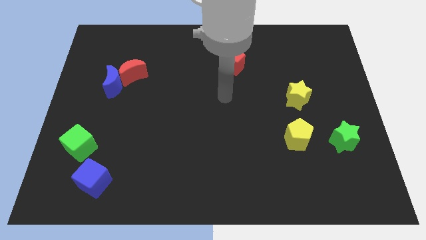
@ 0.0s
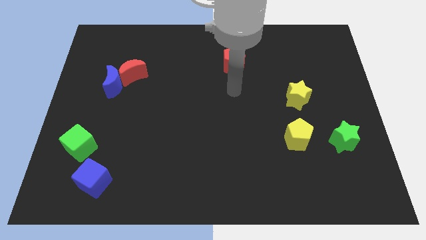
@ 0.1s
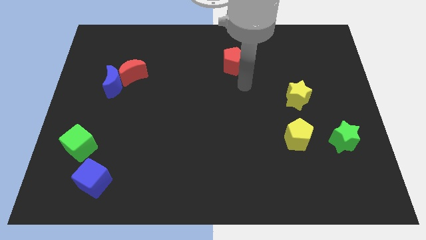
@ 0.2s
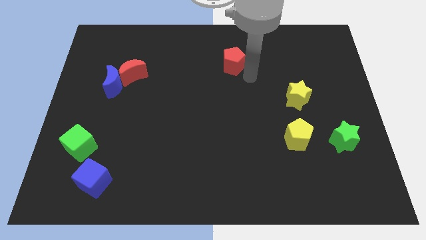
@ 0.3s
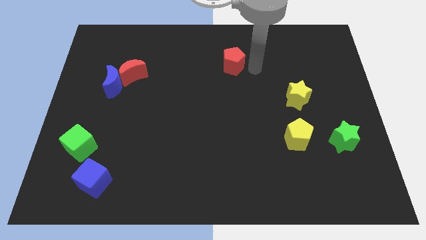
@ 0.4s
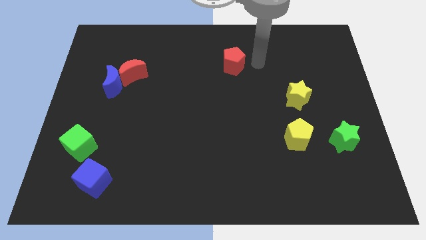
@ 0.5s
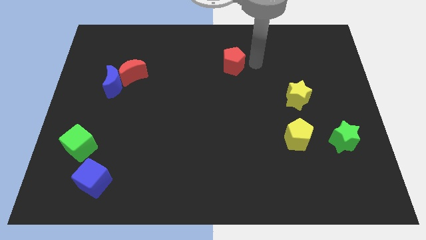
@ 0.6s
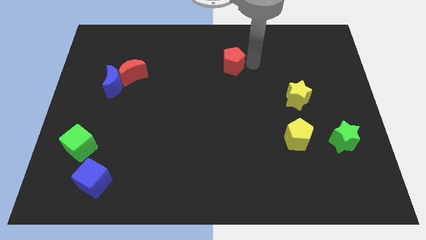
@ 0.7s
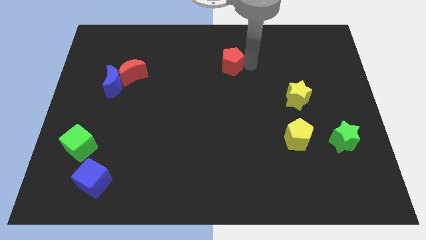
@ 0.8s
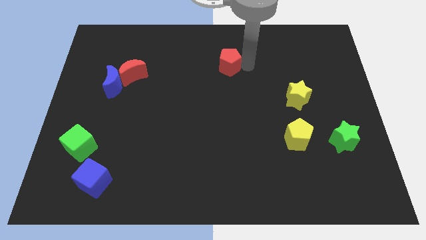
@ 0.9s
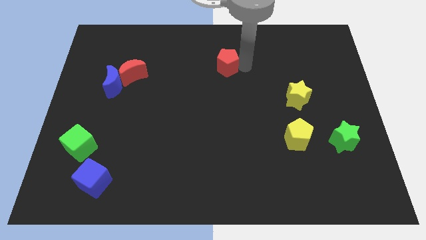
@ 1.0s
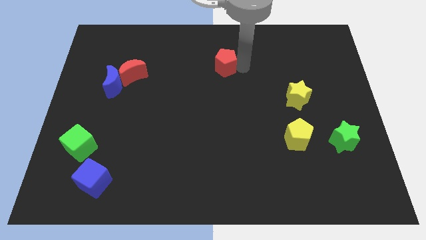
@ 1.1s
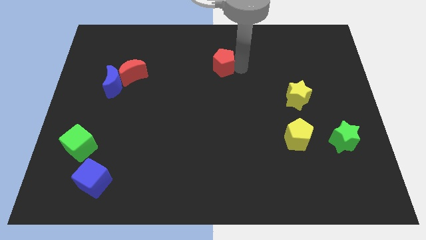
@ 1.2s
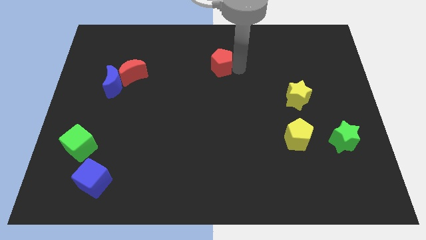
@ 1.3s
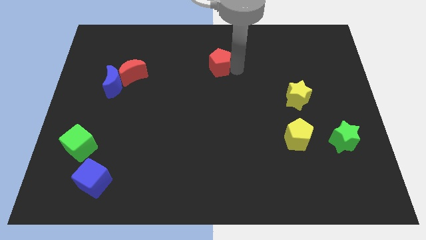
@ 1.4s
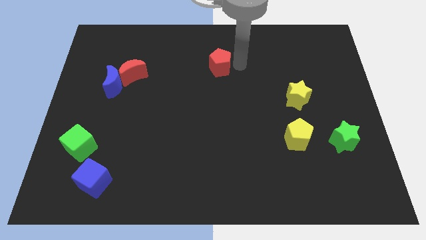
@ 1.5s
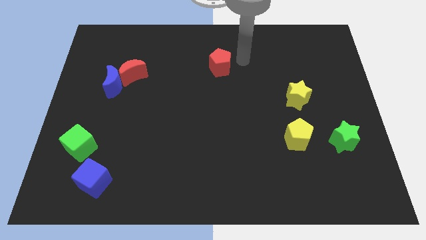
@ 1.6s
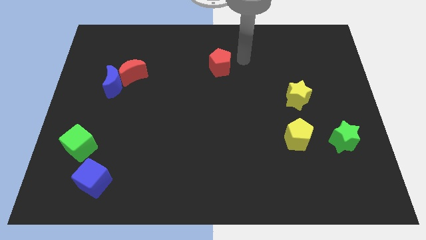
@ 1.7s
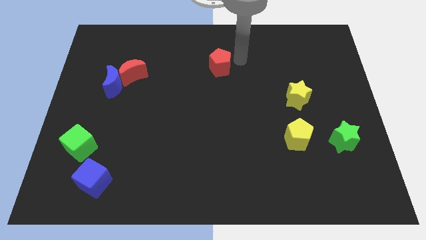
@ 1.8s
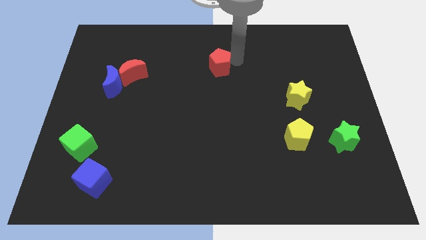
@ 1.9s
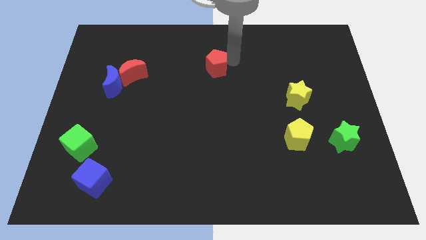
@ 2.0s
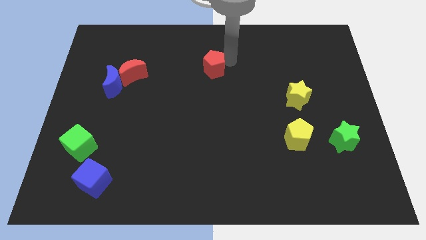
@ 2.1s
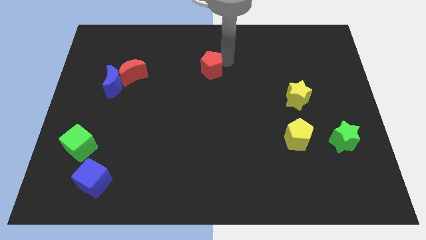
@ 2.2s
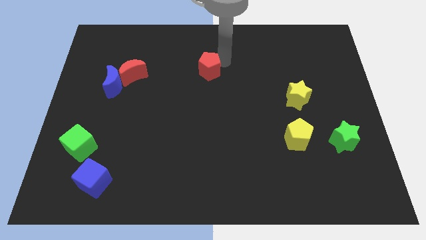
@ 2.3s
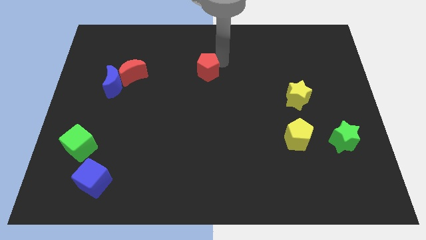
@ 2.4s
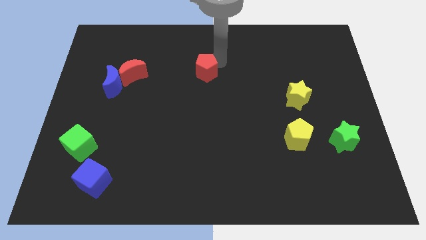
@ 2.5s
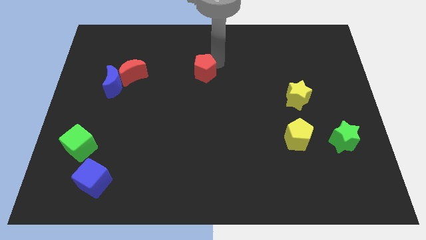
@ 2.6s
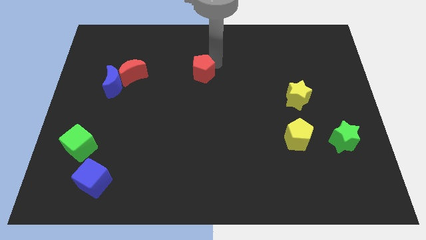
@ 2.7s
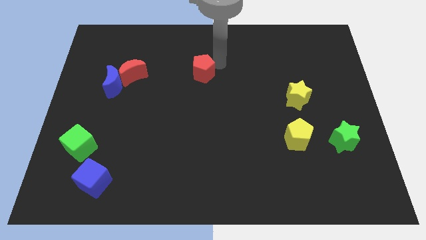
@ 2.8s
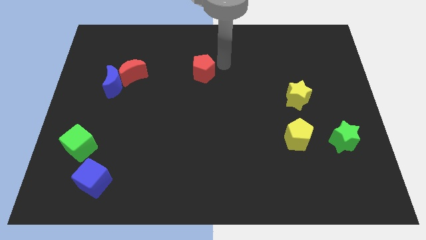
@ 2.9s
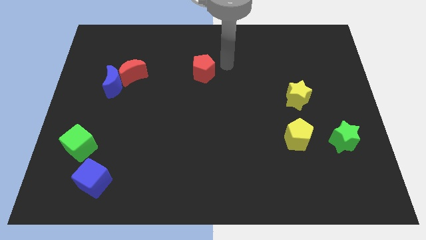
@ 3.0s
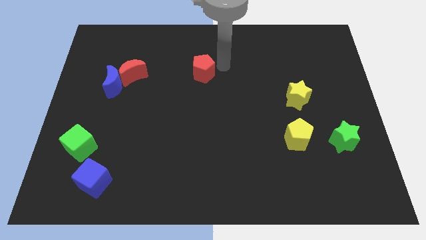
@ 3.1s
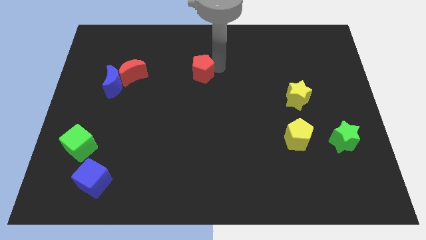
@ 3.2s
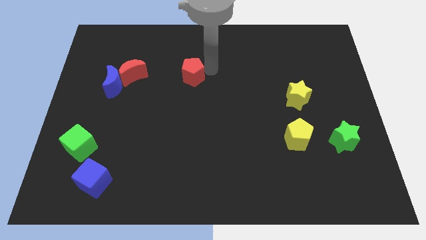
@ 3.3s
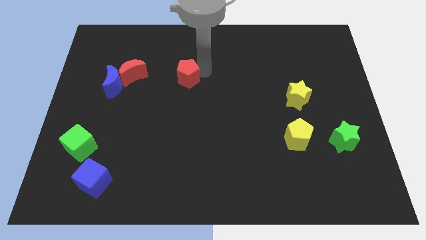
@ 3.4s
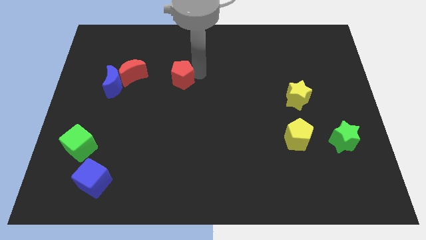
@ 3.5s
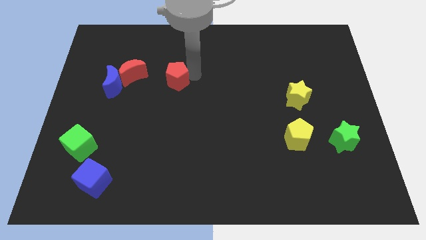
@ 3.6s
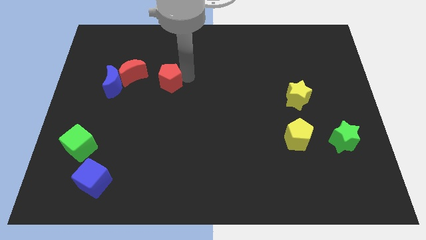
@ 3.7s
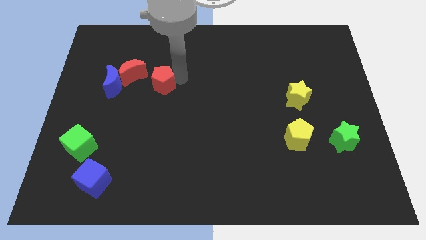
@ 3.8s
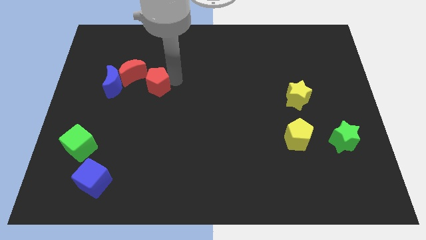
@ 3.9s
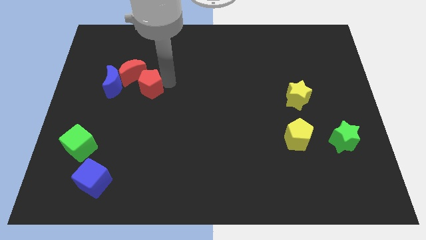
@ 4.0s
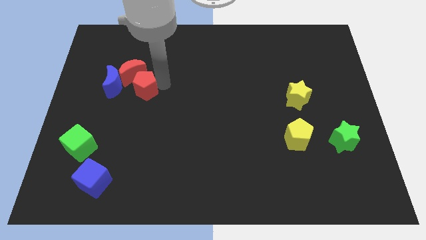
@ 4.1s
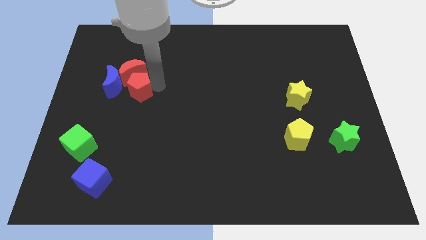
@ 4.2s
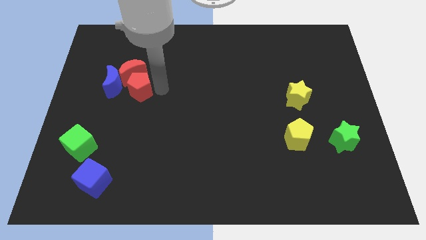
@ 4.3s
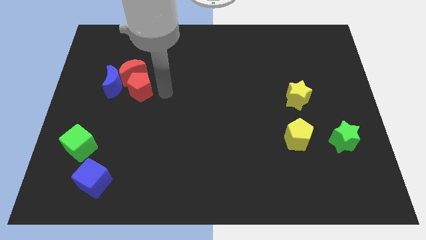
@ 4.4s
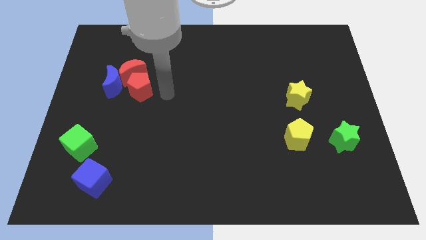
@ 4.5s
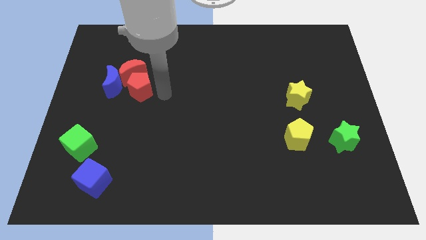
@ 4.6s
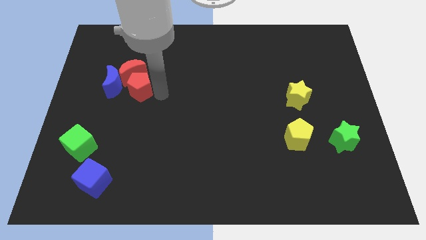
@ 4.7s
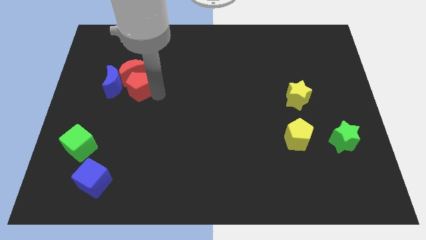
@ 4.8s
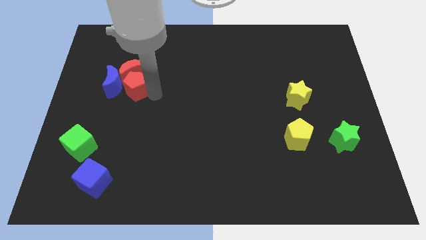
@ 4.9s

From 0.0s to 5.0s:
put the red pentagon towards the blue moon
